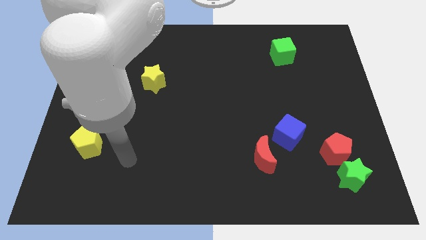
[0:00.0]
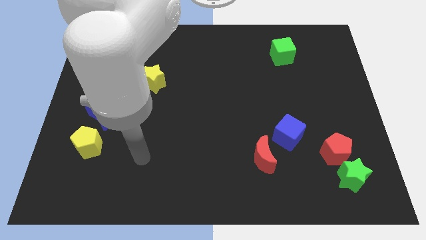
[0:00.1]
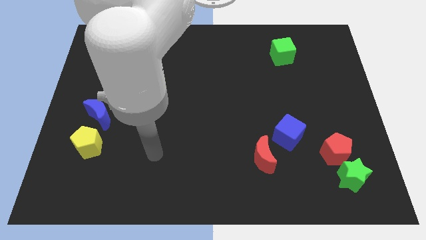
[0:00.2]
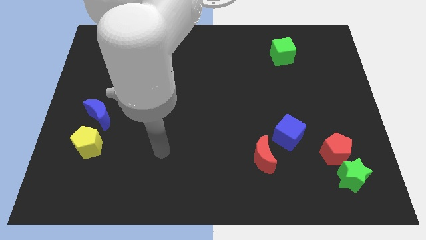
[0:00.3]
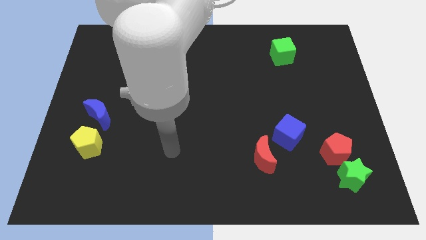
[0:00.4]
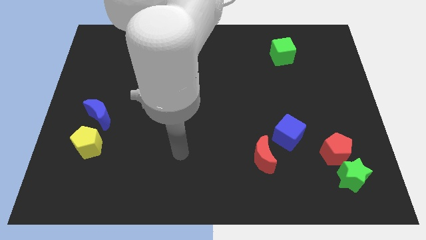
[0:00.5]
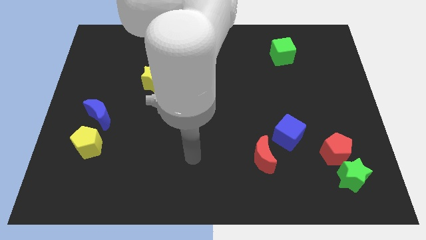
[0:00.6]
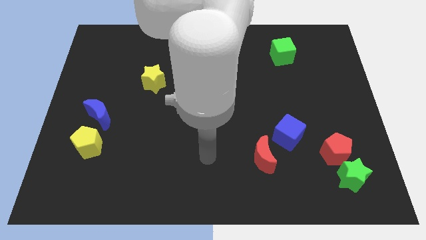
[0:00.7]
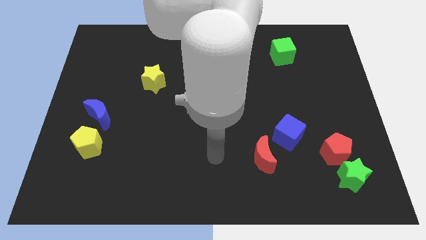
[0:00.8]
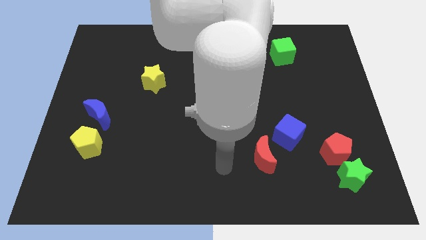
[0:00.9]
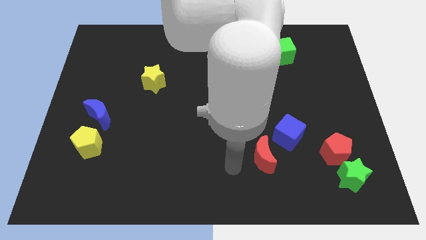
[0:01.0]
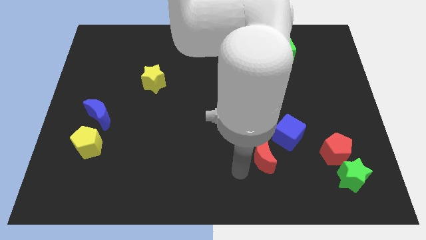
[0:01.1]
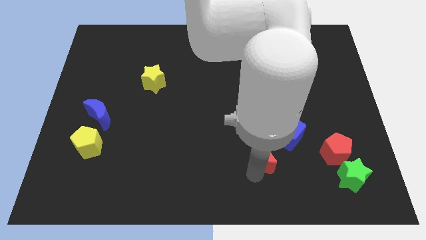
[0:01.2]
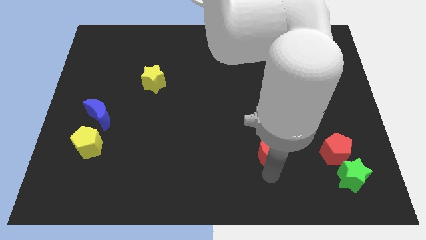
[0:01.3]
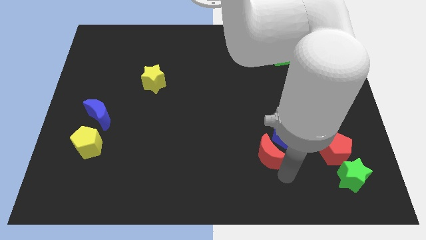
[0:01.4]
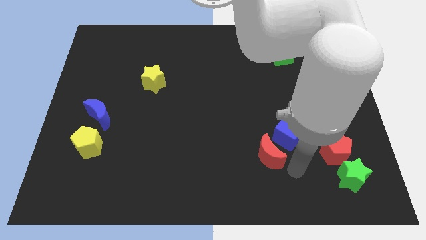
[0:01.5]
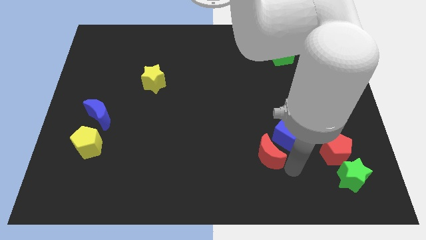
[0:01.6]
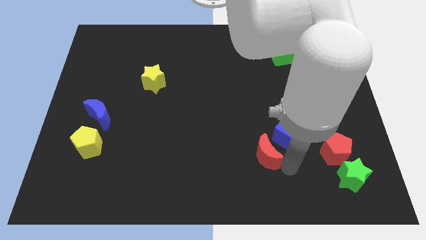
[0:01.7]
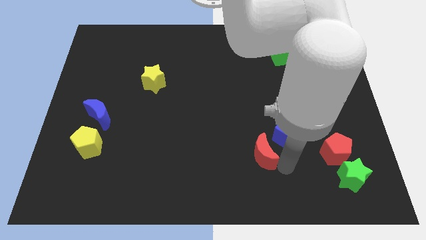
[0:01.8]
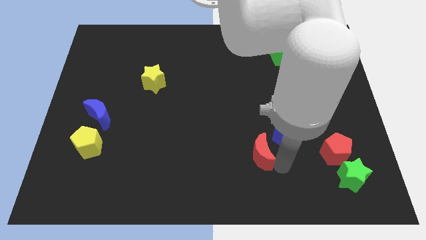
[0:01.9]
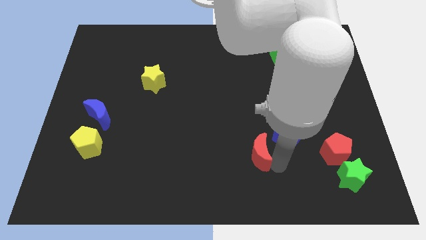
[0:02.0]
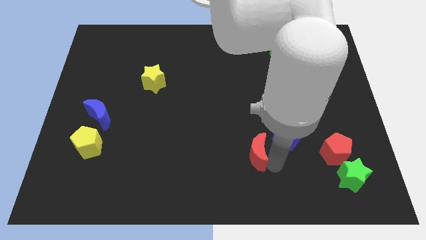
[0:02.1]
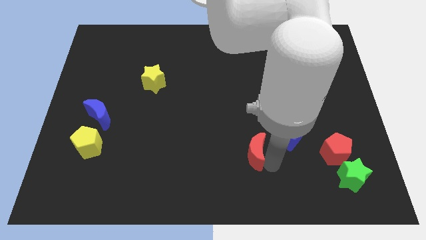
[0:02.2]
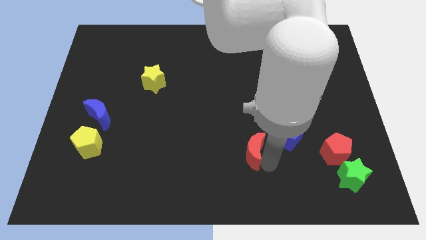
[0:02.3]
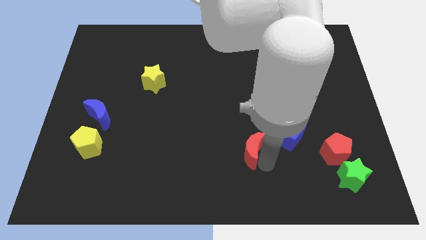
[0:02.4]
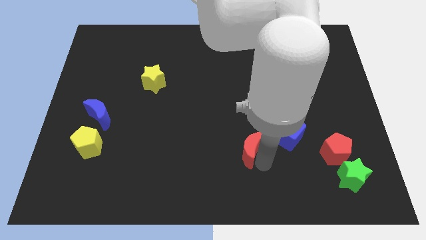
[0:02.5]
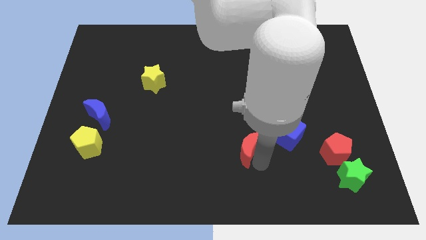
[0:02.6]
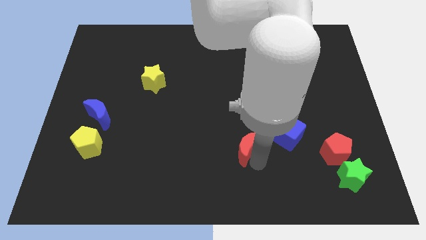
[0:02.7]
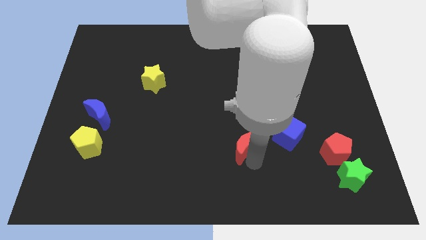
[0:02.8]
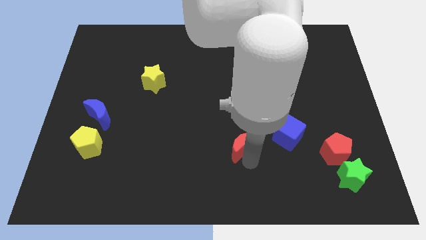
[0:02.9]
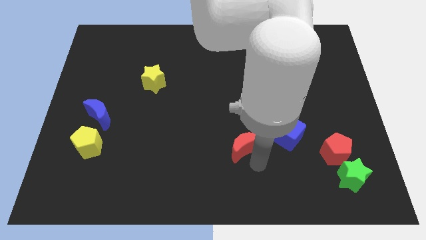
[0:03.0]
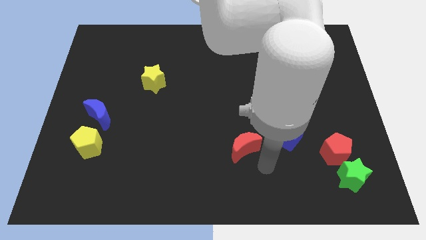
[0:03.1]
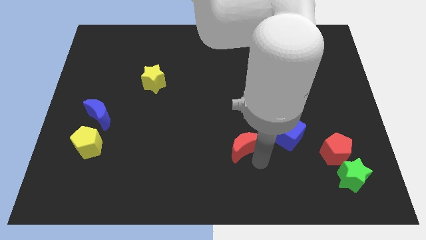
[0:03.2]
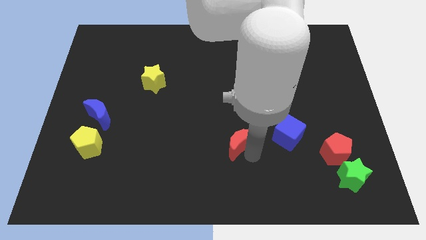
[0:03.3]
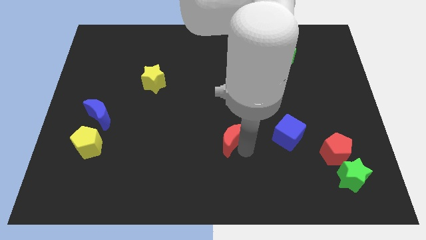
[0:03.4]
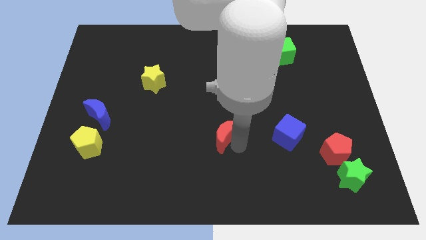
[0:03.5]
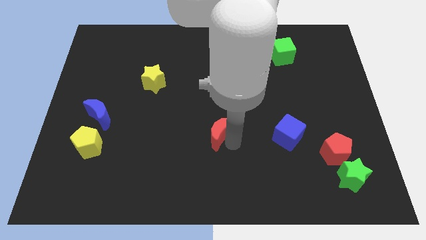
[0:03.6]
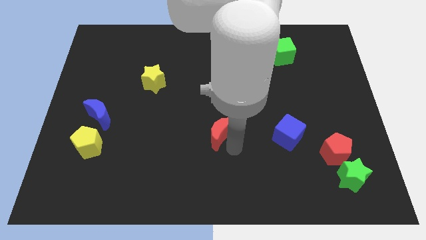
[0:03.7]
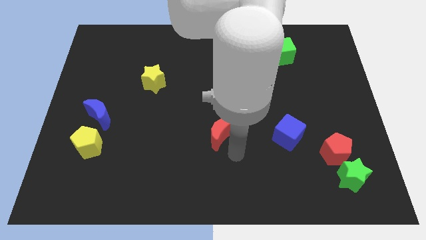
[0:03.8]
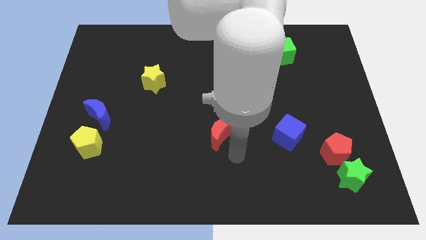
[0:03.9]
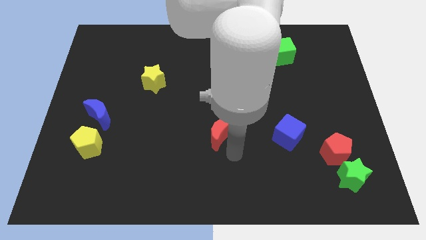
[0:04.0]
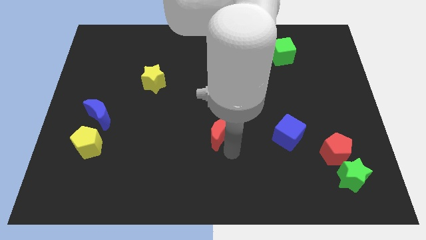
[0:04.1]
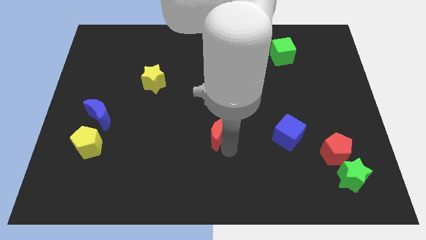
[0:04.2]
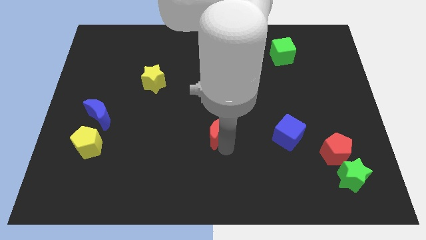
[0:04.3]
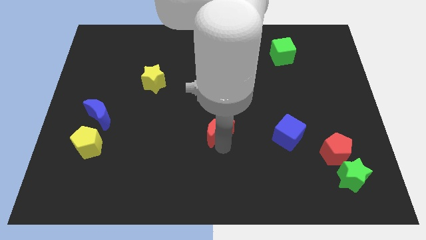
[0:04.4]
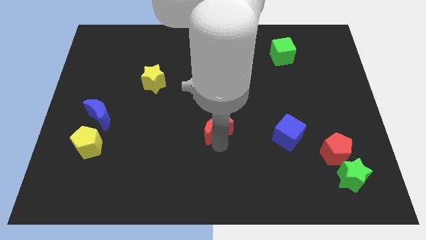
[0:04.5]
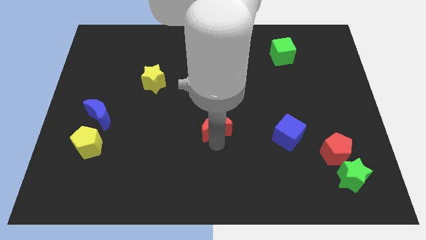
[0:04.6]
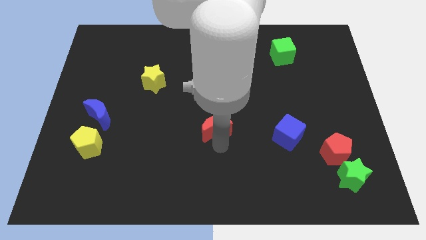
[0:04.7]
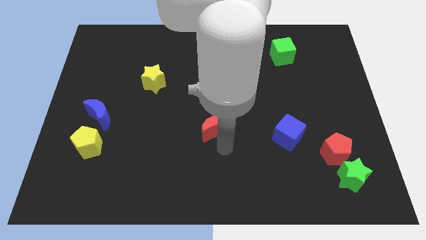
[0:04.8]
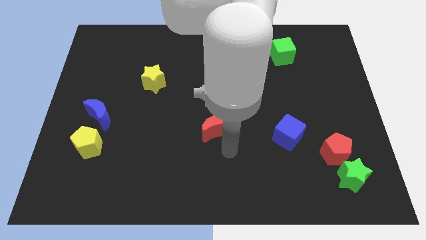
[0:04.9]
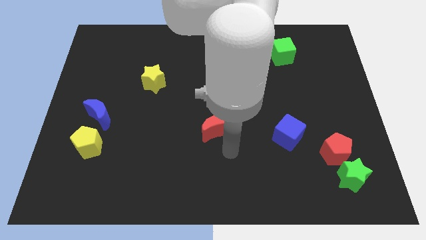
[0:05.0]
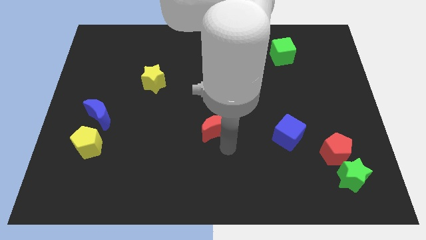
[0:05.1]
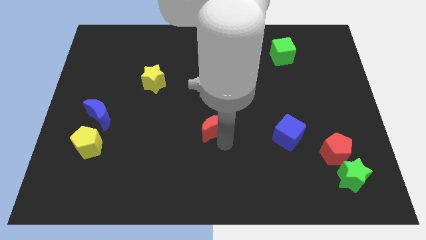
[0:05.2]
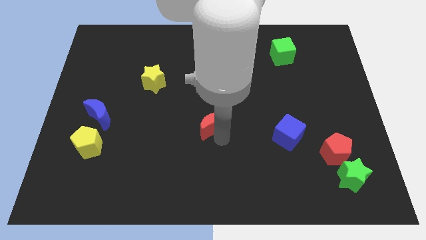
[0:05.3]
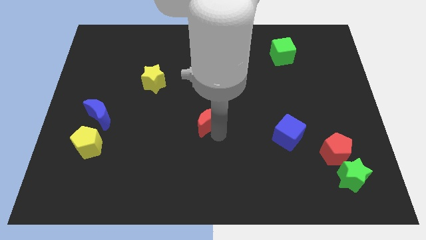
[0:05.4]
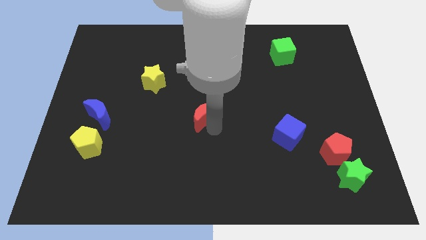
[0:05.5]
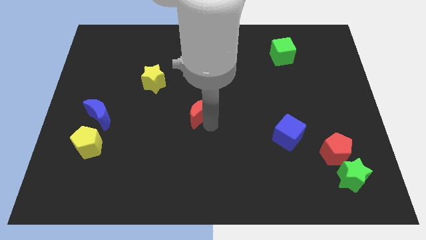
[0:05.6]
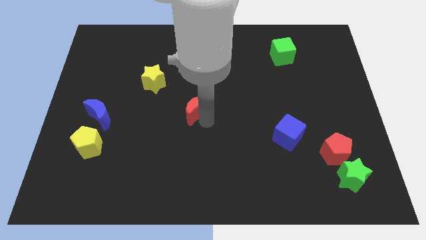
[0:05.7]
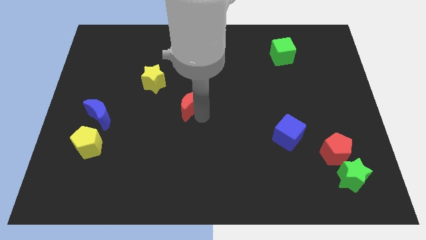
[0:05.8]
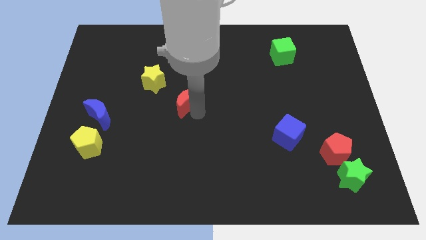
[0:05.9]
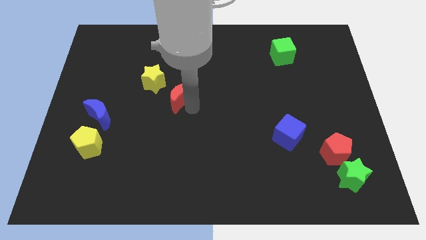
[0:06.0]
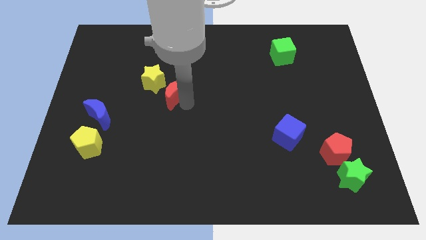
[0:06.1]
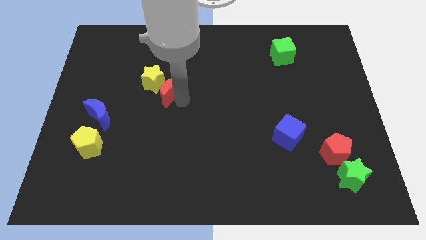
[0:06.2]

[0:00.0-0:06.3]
push the red moon next to the yellow star

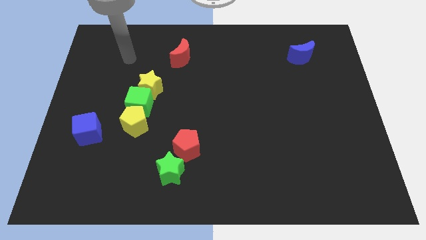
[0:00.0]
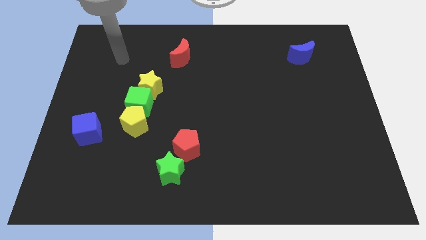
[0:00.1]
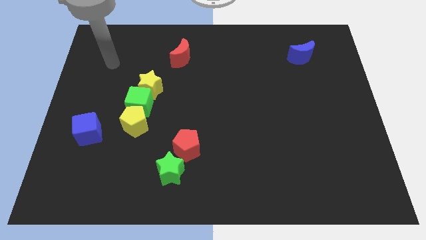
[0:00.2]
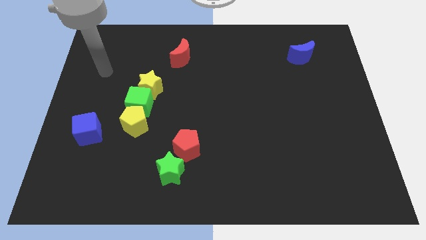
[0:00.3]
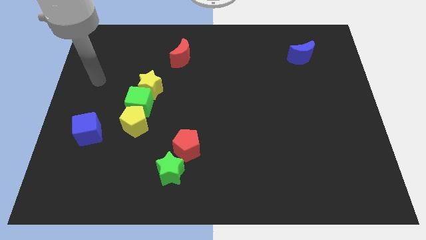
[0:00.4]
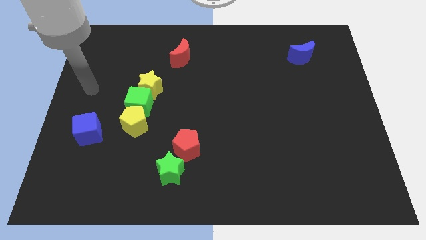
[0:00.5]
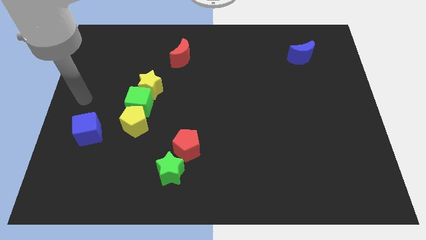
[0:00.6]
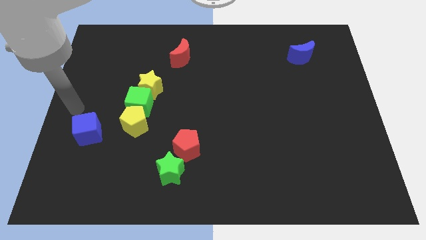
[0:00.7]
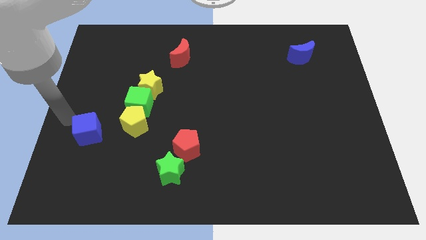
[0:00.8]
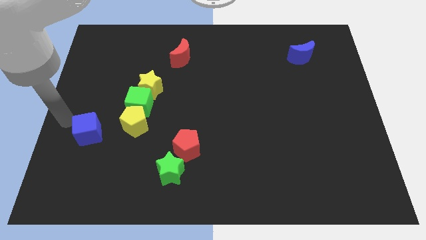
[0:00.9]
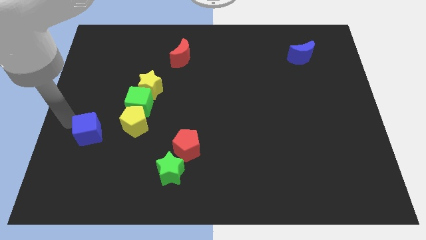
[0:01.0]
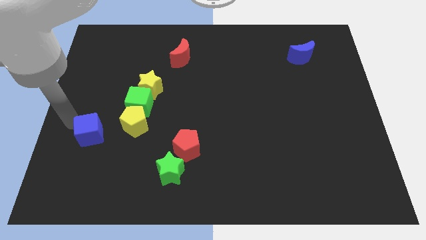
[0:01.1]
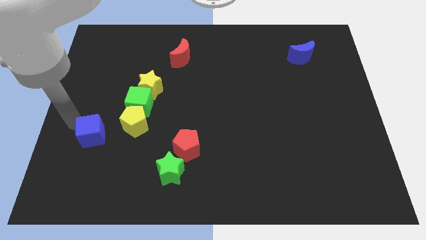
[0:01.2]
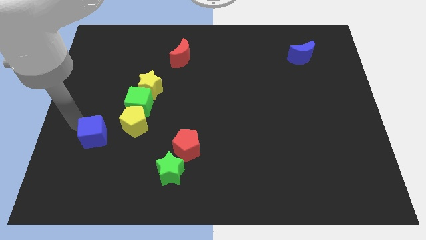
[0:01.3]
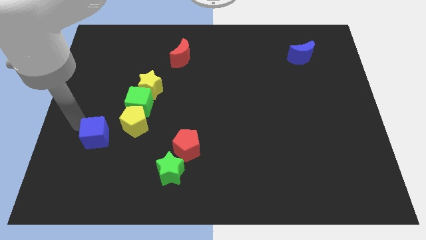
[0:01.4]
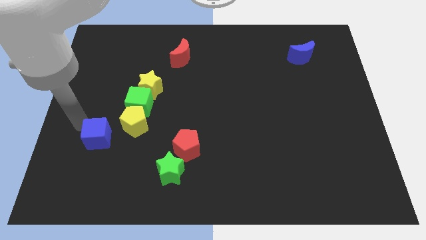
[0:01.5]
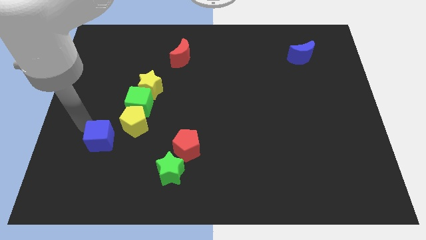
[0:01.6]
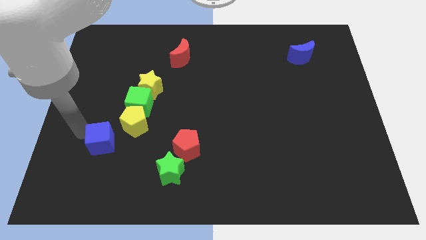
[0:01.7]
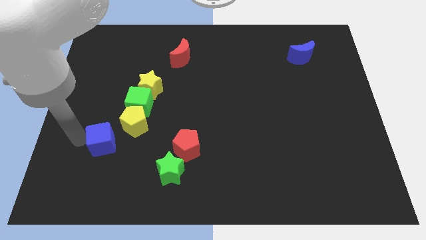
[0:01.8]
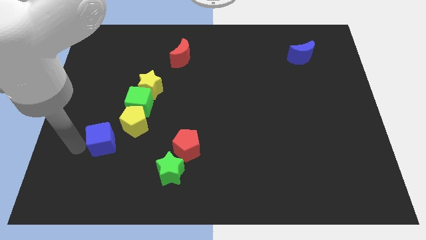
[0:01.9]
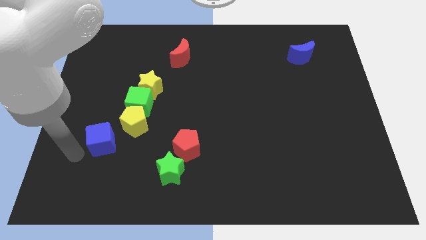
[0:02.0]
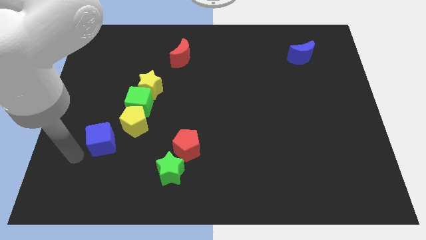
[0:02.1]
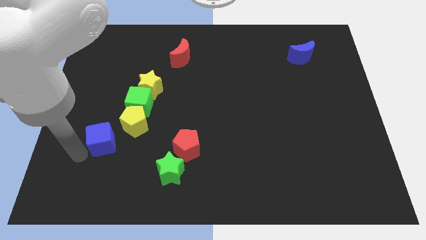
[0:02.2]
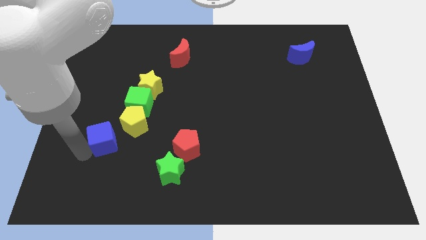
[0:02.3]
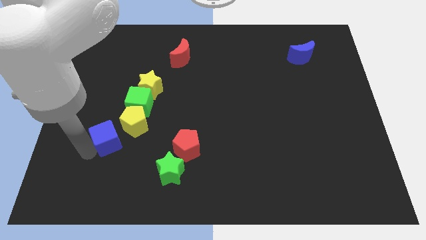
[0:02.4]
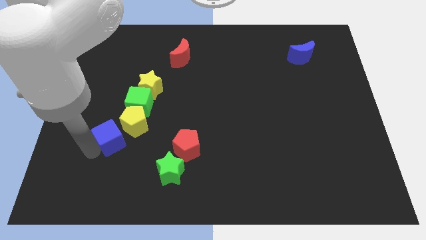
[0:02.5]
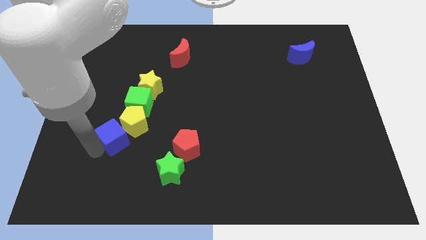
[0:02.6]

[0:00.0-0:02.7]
slide the blue cube next to the yellow pentagon
